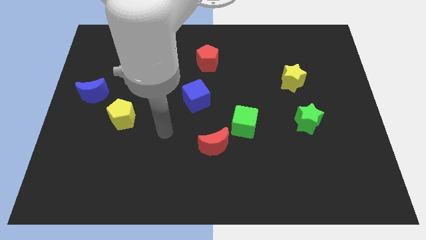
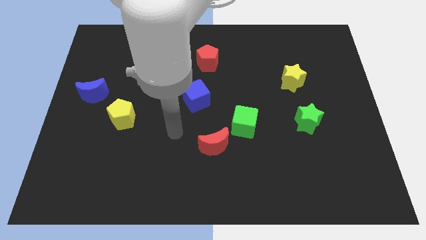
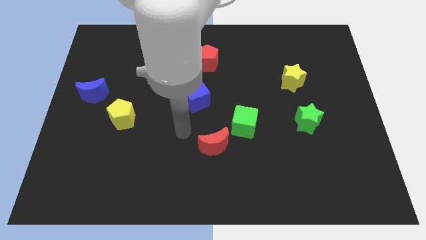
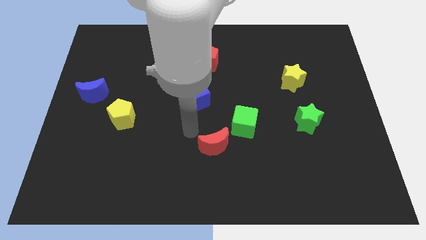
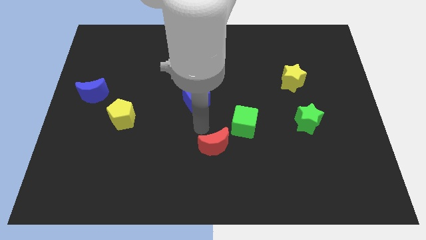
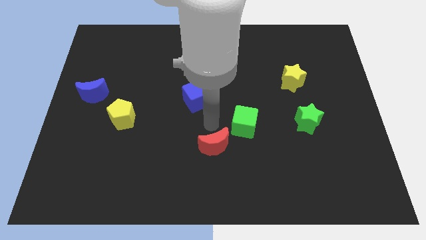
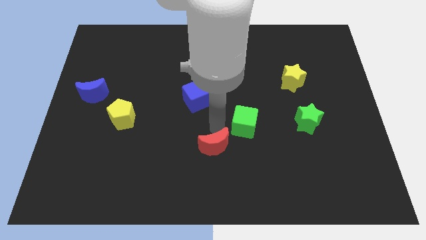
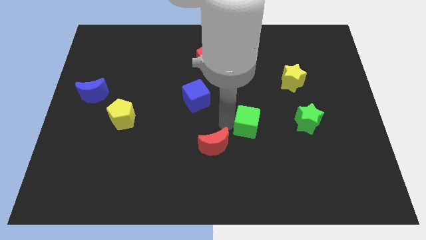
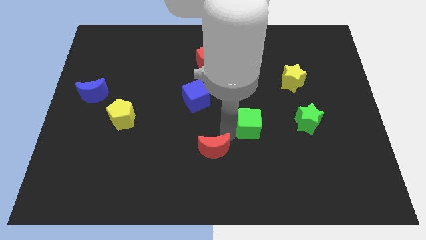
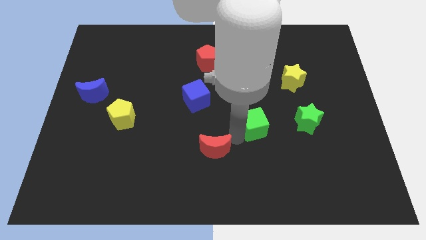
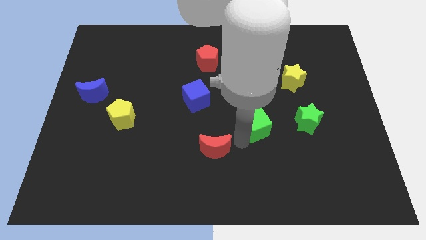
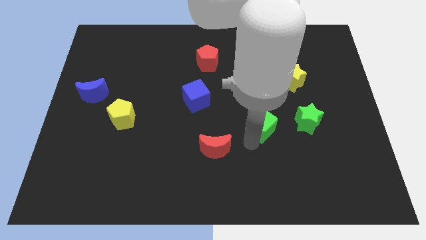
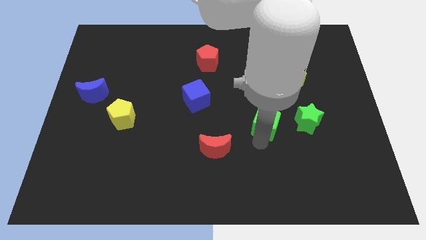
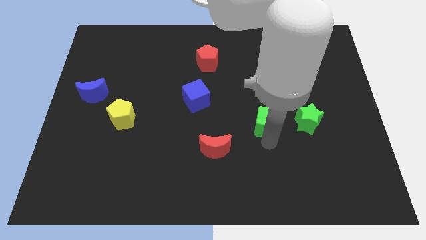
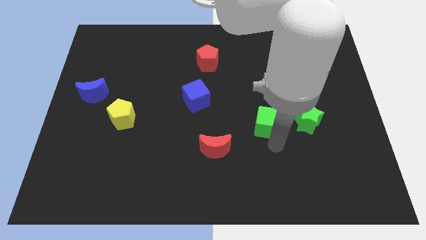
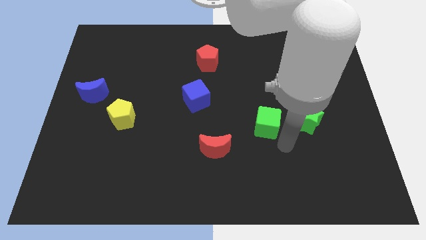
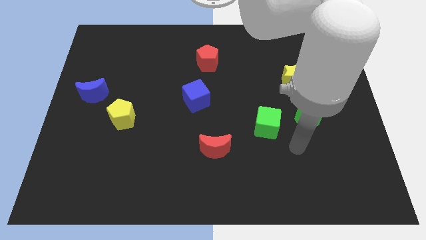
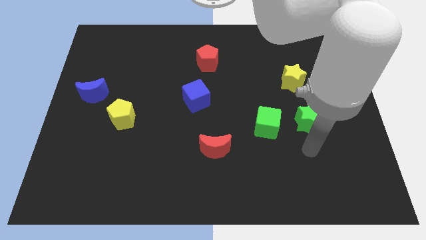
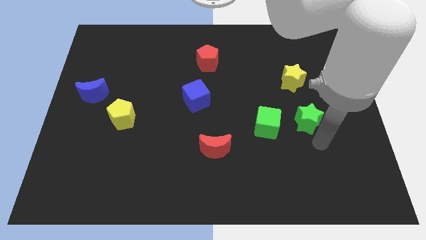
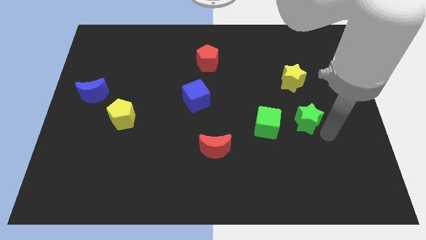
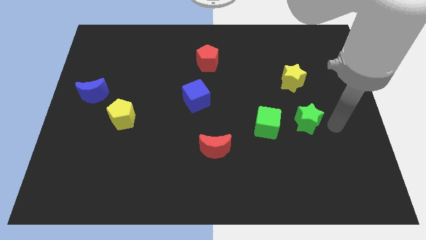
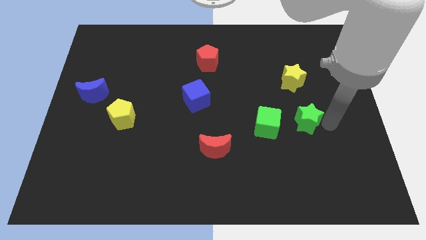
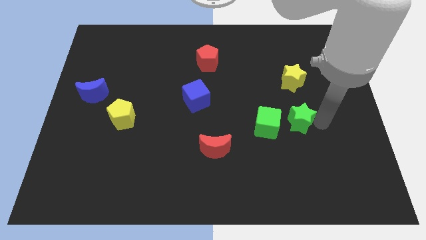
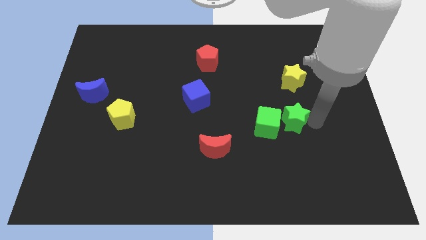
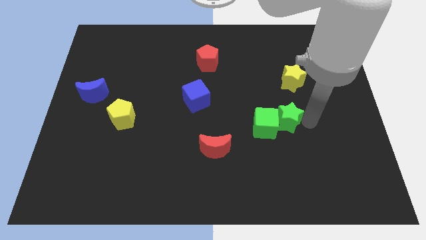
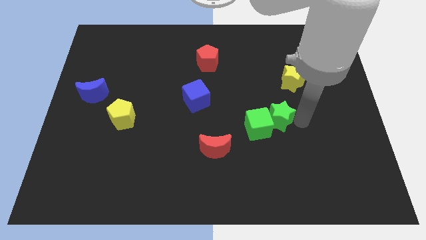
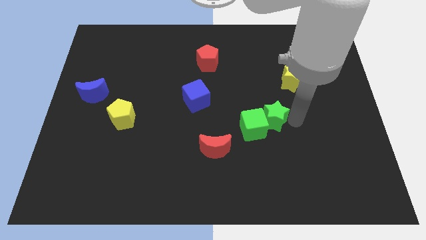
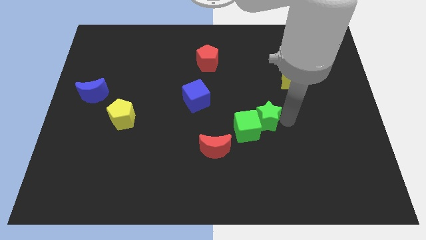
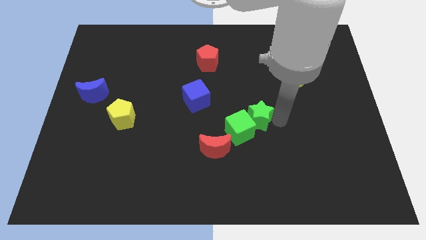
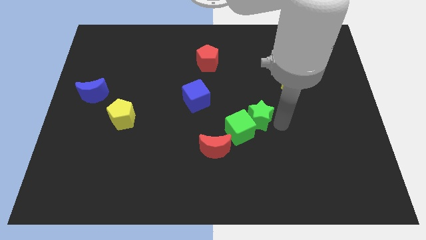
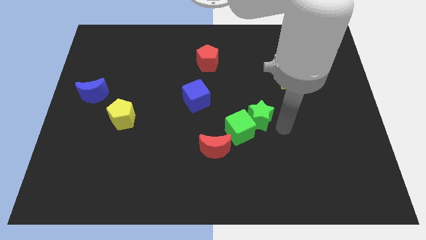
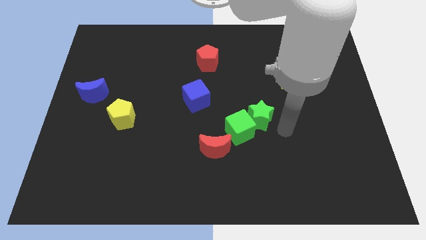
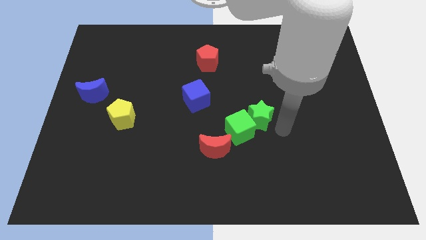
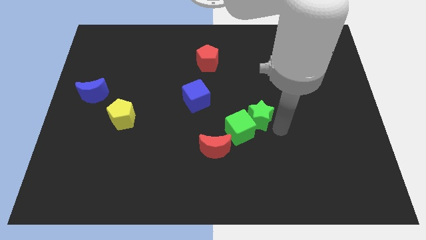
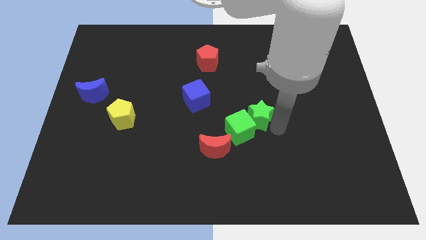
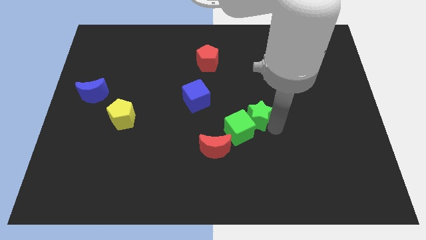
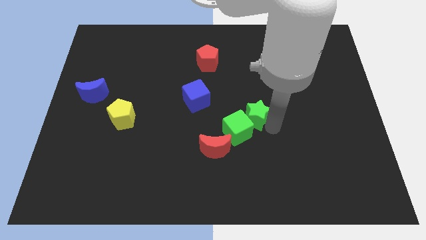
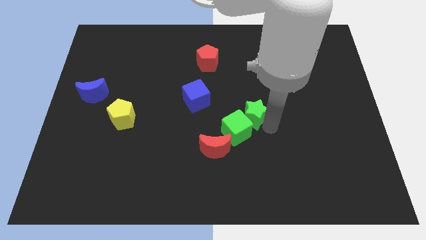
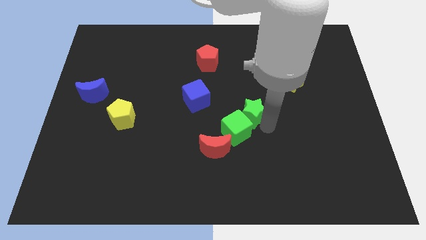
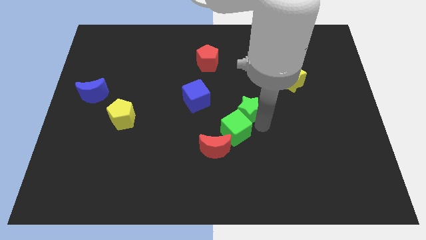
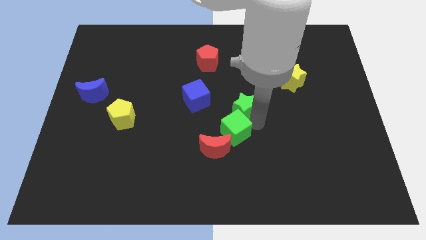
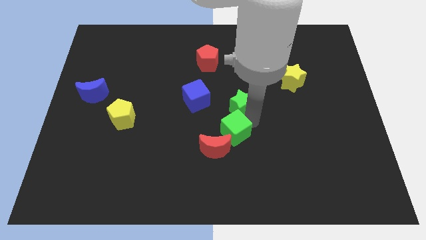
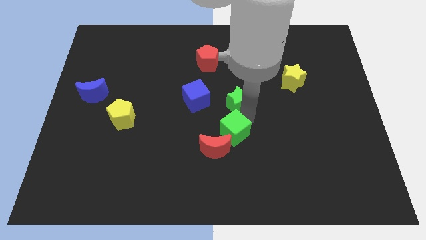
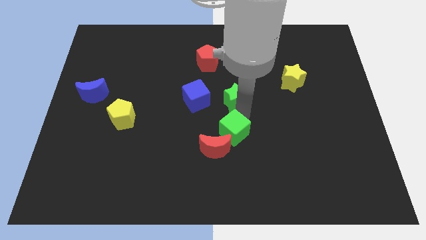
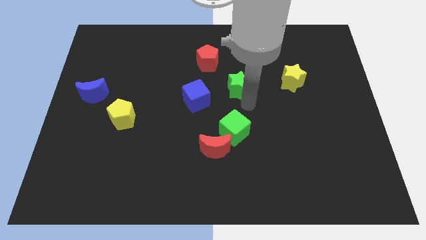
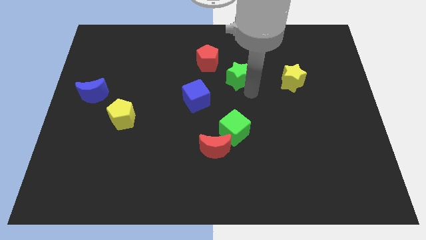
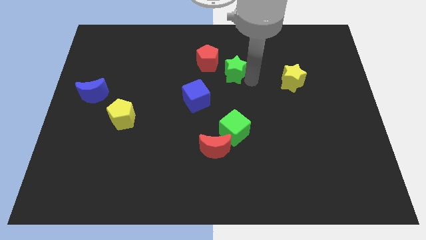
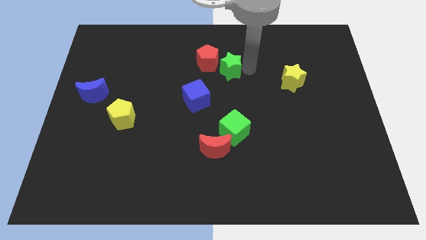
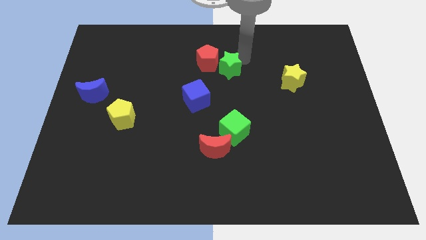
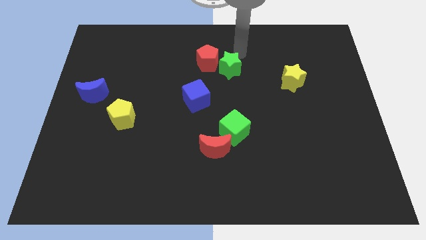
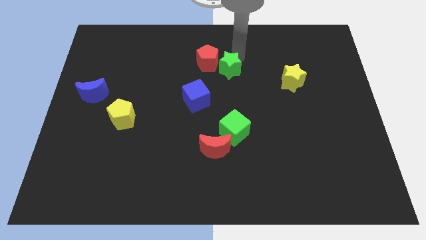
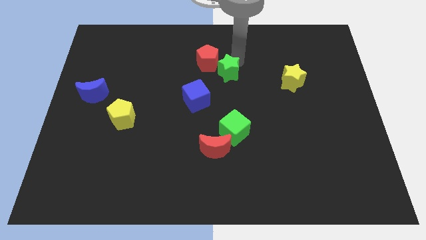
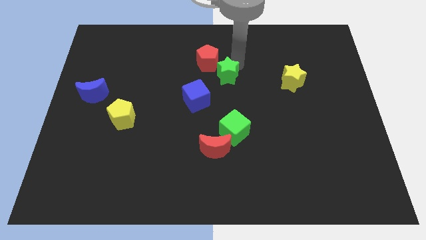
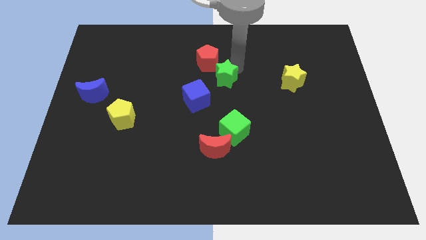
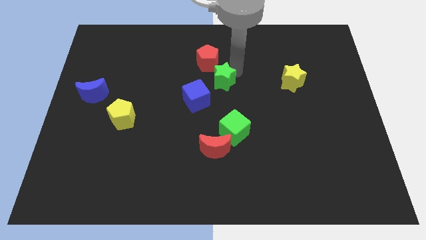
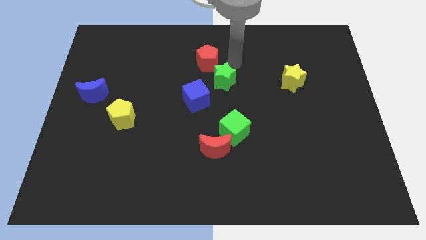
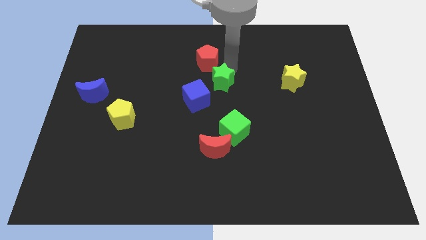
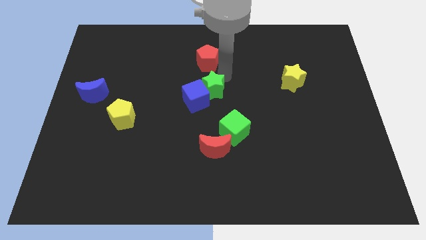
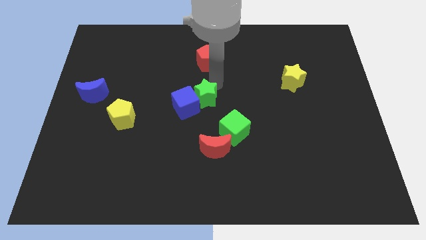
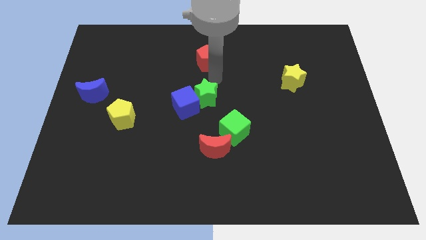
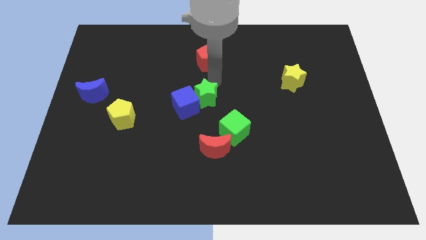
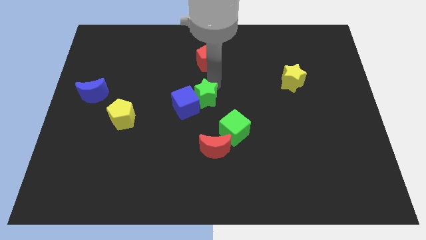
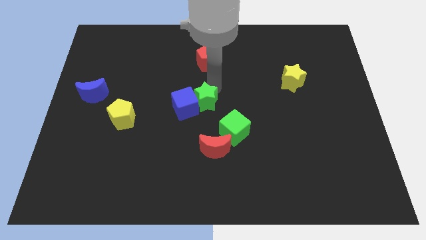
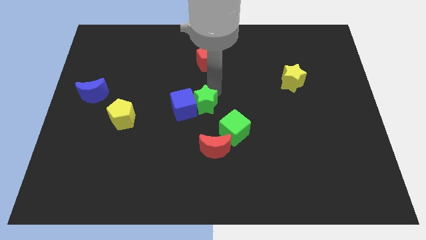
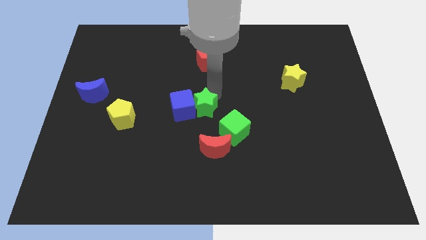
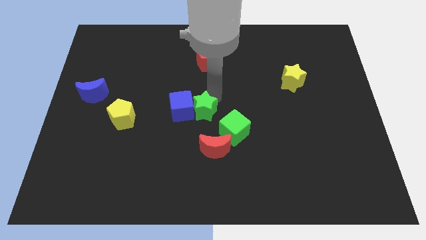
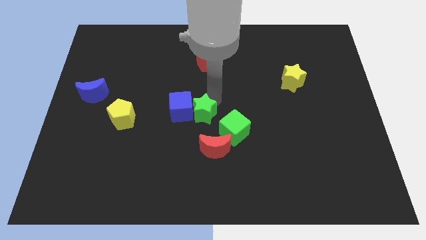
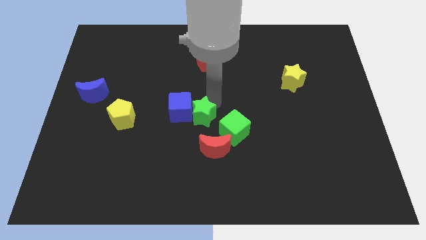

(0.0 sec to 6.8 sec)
push the green star just left of the green cube

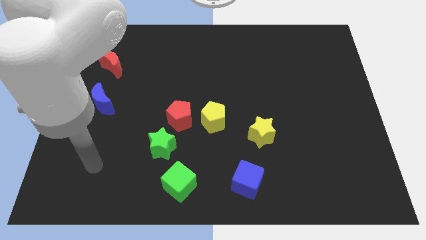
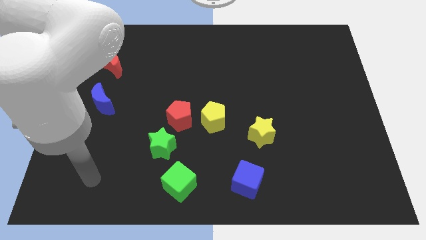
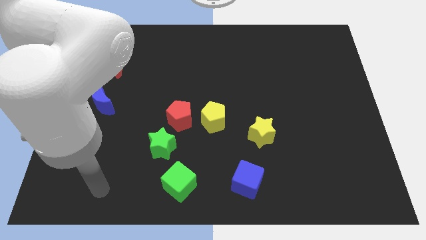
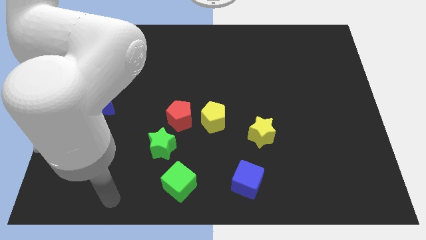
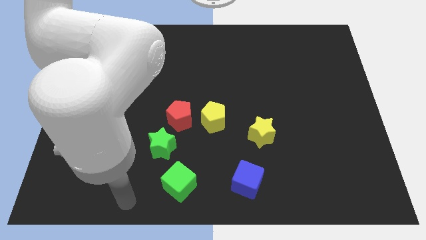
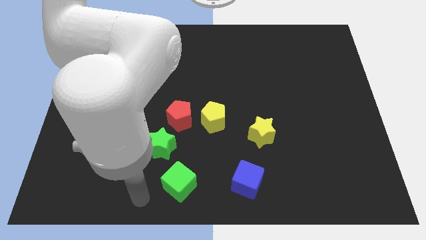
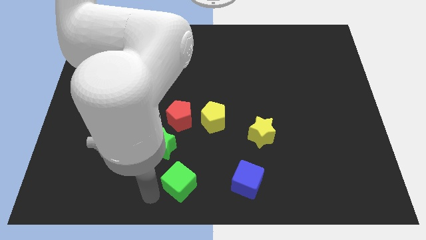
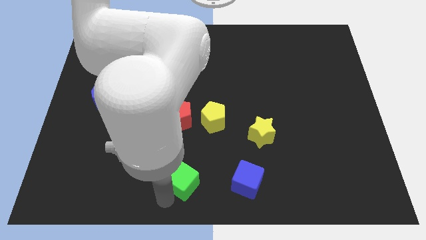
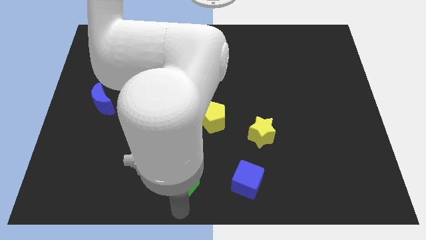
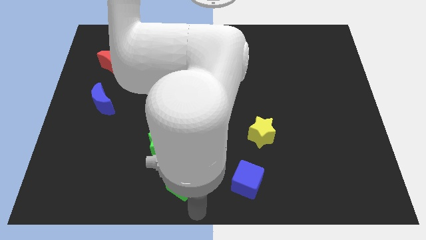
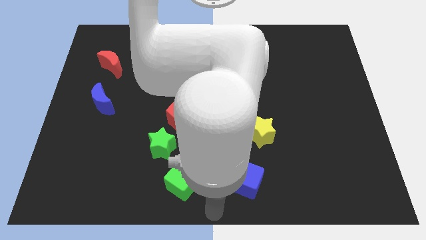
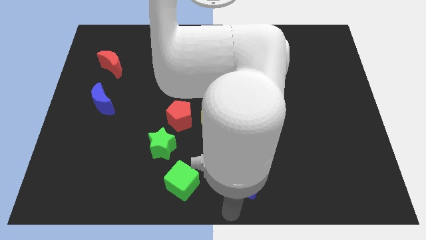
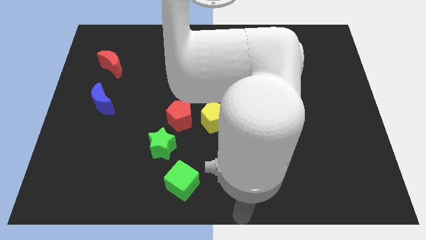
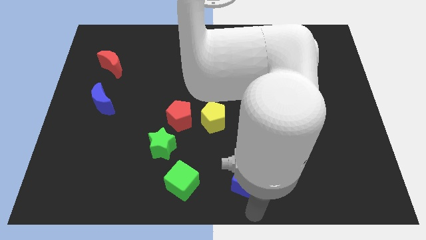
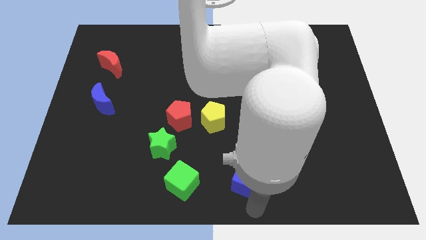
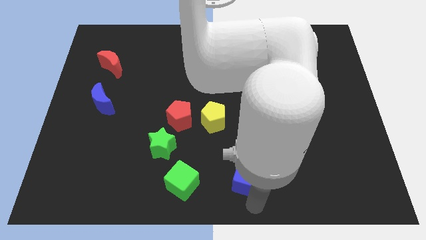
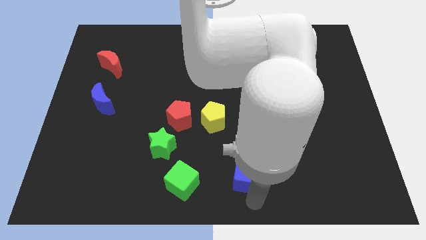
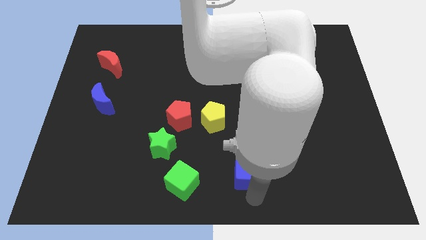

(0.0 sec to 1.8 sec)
put the blue cube to the bottom left of the yellow star
